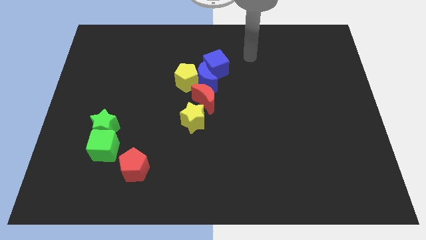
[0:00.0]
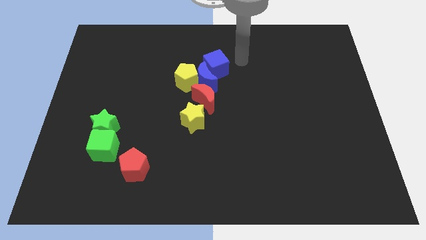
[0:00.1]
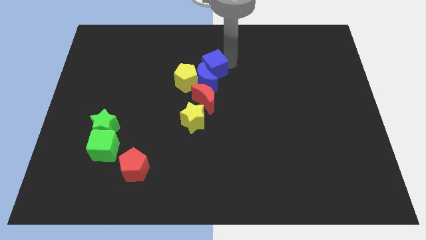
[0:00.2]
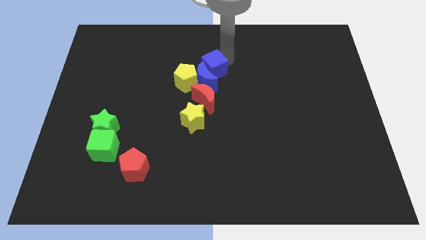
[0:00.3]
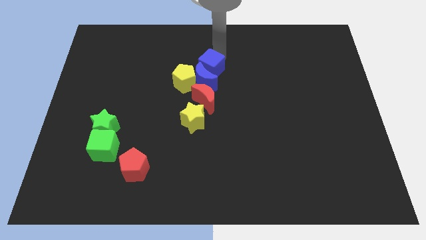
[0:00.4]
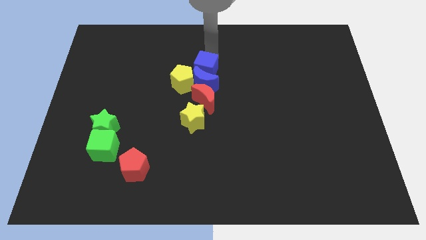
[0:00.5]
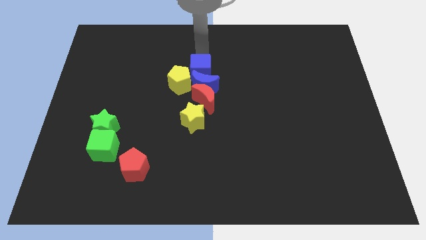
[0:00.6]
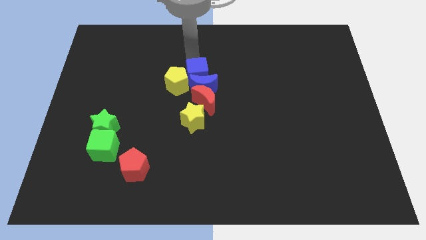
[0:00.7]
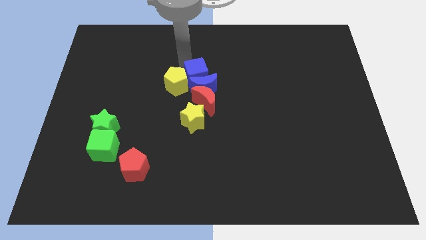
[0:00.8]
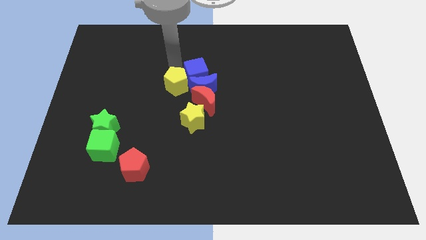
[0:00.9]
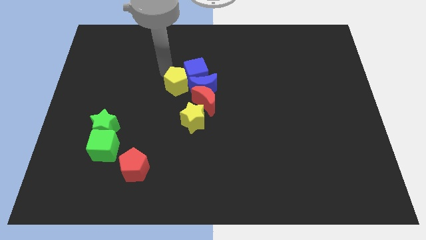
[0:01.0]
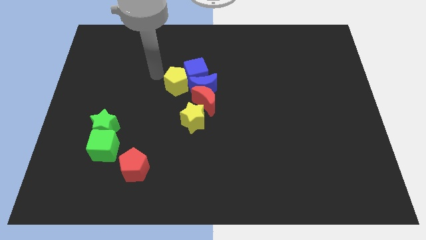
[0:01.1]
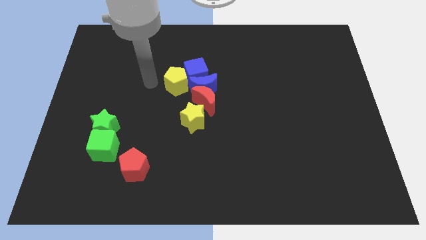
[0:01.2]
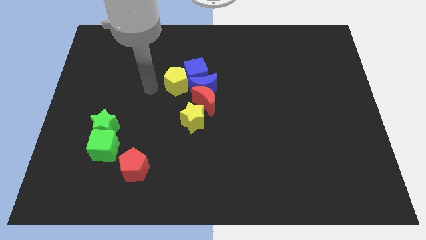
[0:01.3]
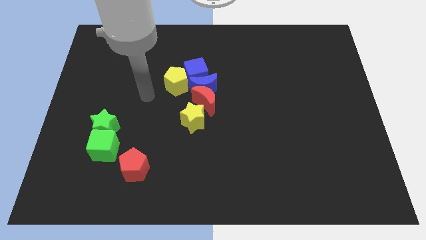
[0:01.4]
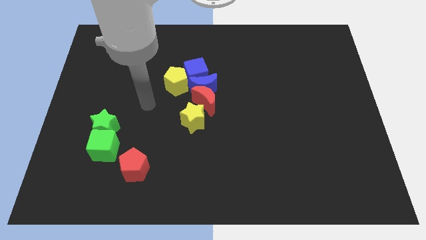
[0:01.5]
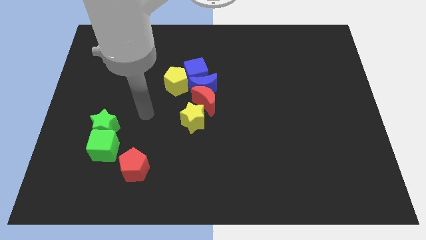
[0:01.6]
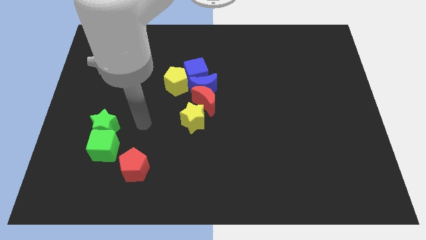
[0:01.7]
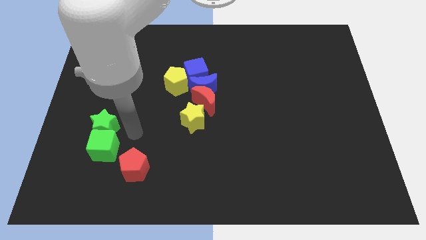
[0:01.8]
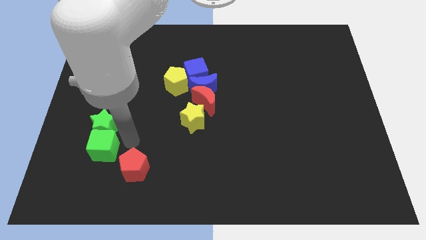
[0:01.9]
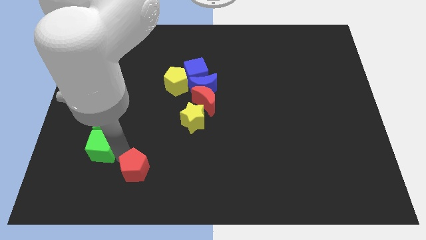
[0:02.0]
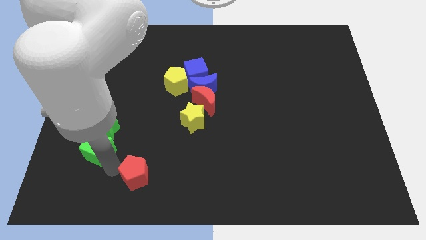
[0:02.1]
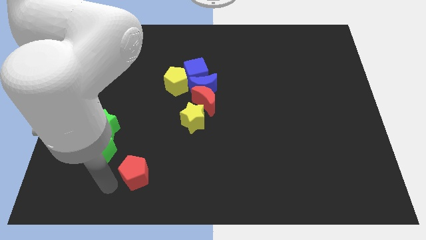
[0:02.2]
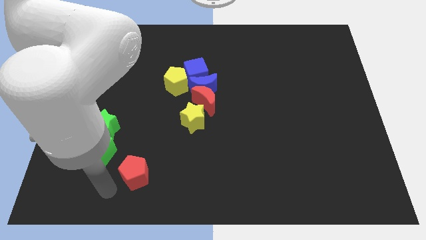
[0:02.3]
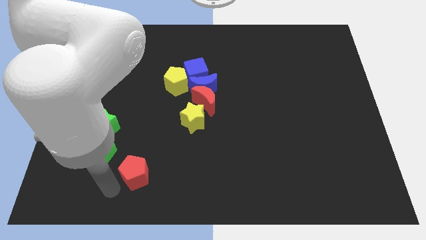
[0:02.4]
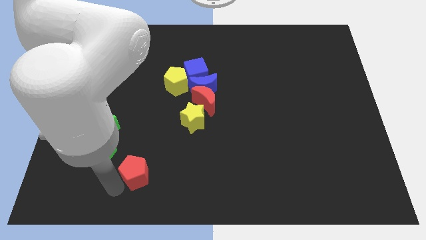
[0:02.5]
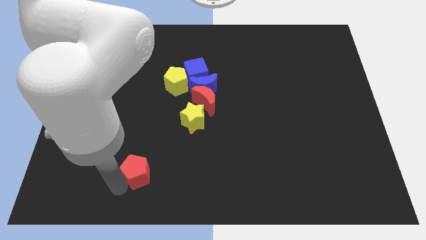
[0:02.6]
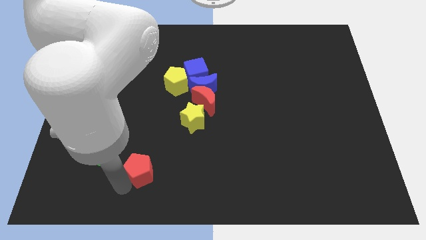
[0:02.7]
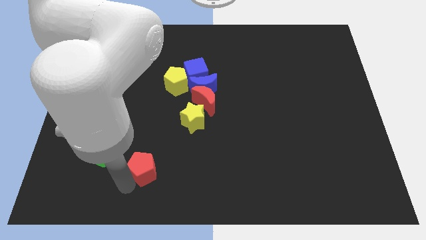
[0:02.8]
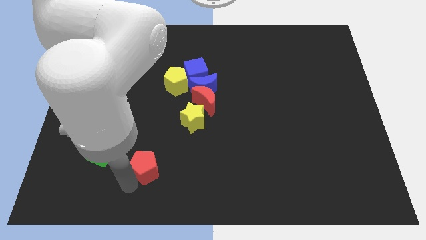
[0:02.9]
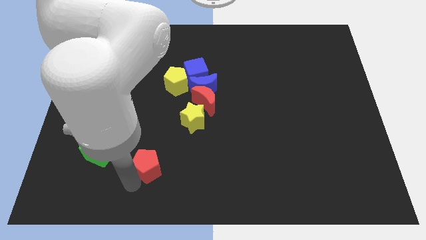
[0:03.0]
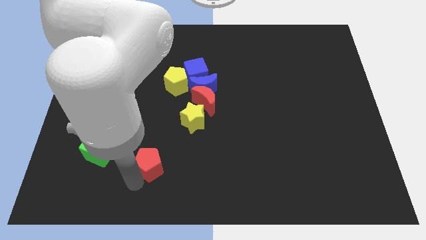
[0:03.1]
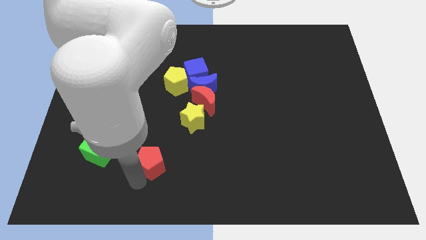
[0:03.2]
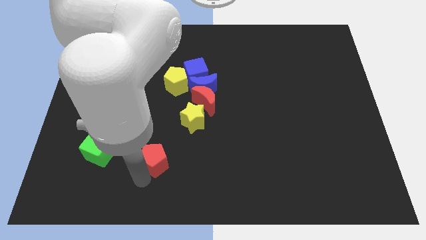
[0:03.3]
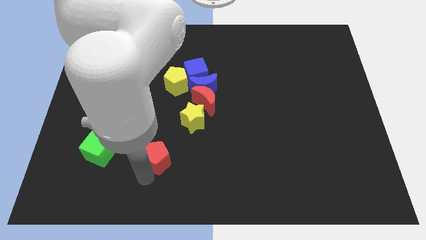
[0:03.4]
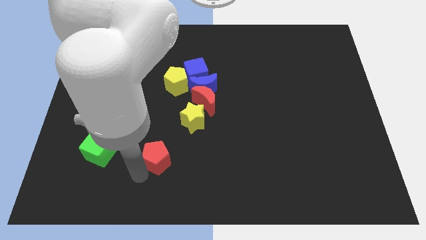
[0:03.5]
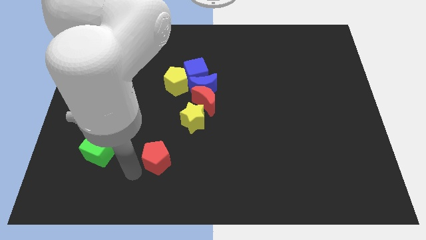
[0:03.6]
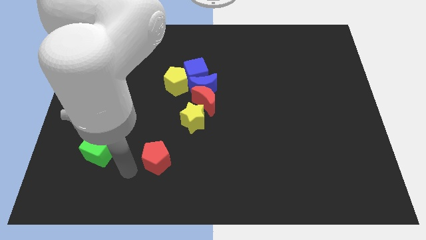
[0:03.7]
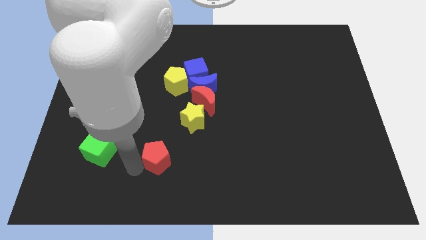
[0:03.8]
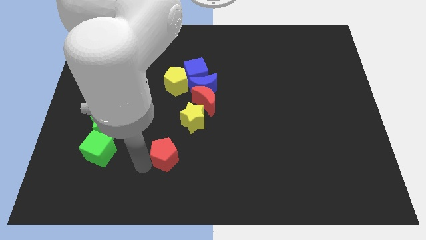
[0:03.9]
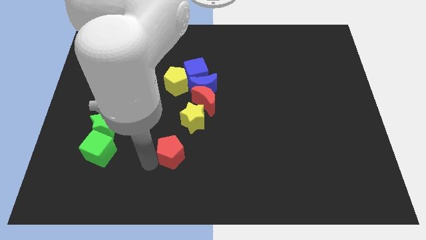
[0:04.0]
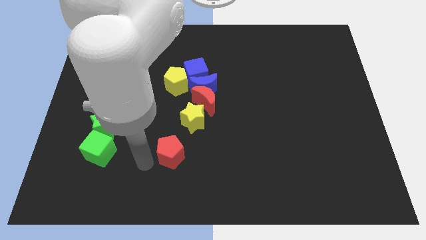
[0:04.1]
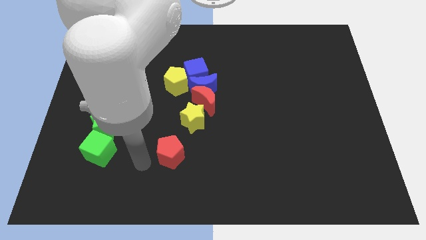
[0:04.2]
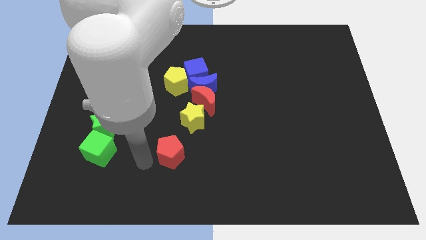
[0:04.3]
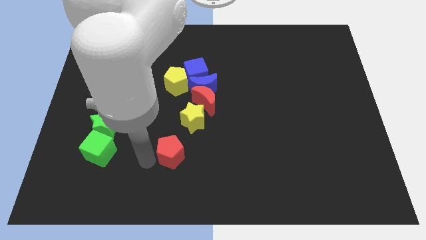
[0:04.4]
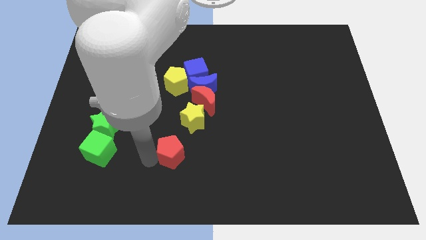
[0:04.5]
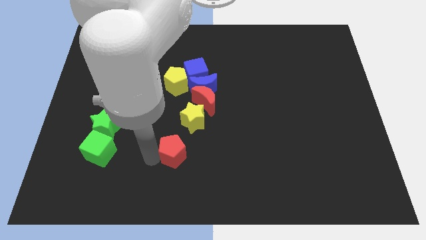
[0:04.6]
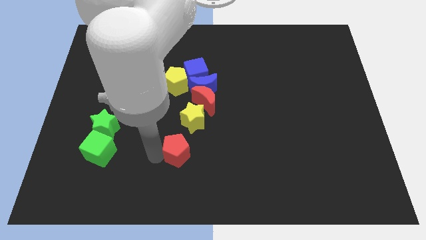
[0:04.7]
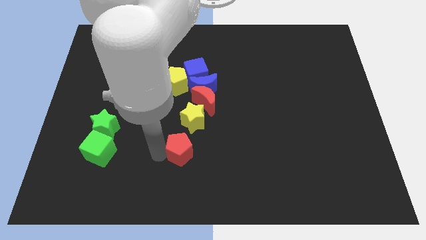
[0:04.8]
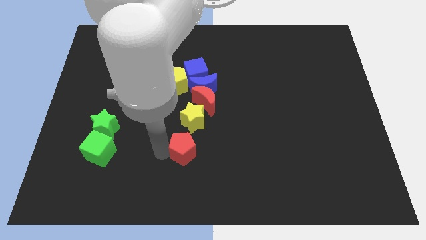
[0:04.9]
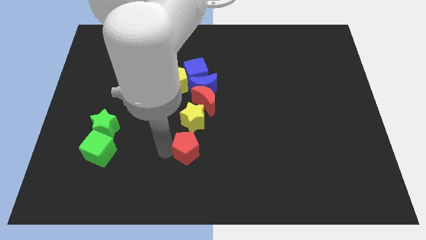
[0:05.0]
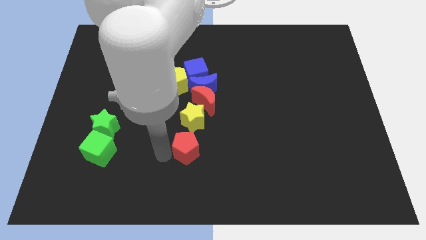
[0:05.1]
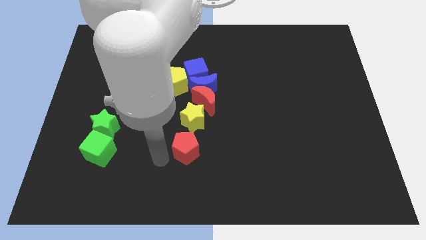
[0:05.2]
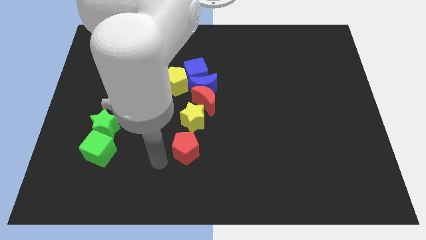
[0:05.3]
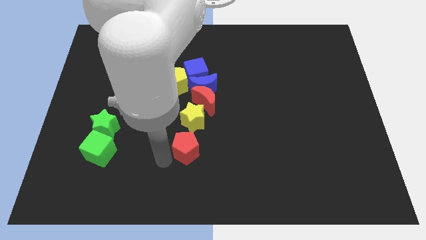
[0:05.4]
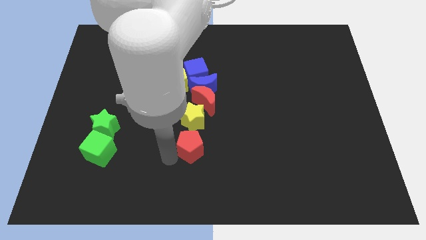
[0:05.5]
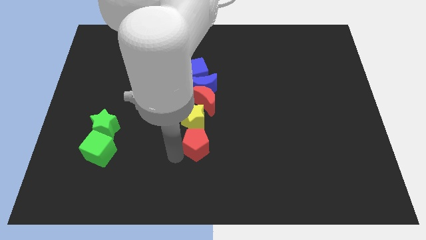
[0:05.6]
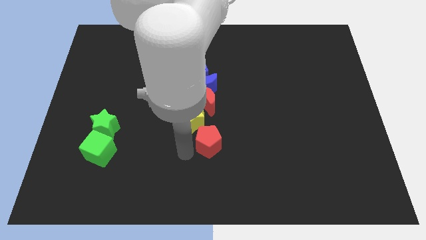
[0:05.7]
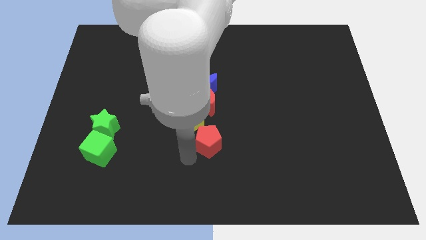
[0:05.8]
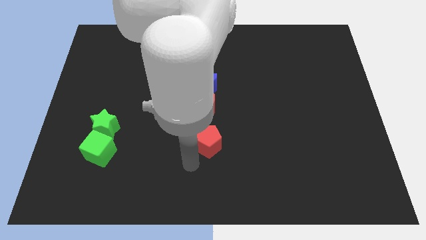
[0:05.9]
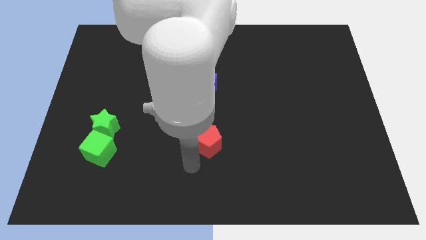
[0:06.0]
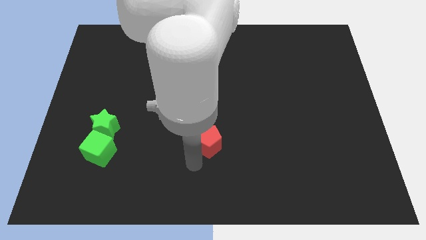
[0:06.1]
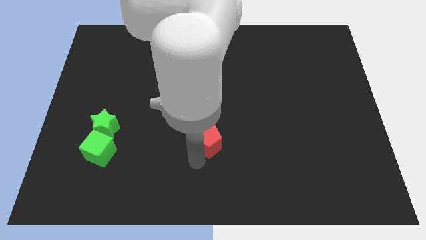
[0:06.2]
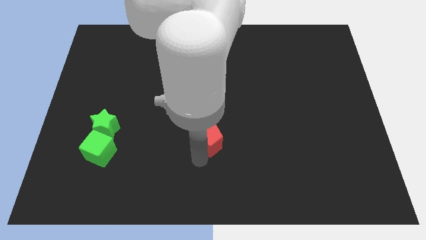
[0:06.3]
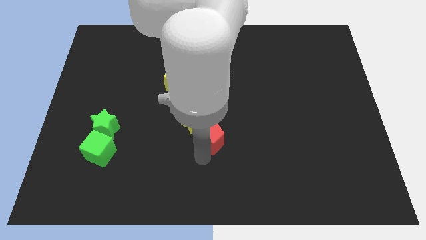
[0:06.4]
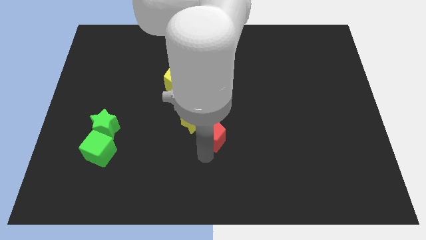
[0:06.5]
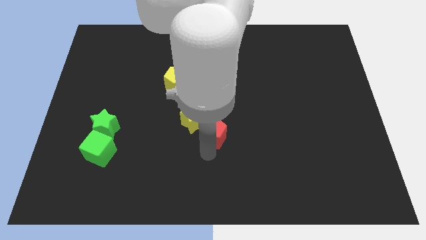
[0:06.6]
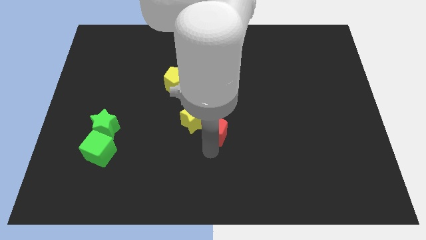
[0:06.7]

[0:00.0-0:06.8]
move the red pentagon to the bottom right of the red moon
